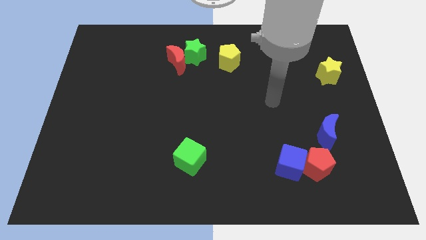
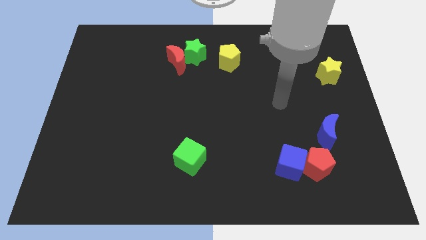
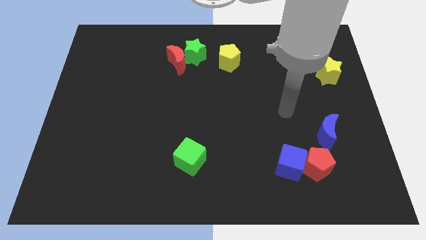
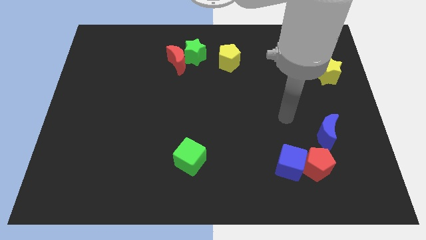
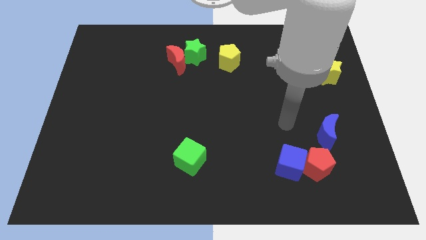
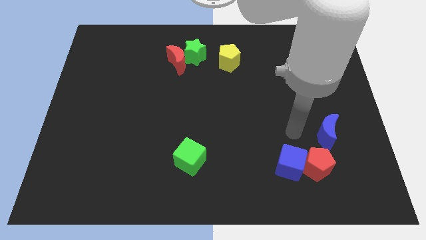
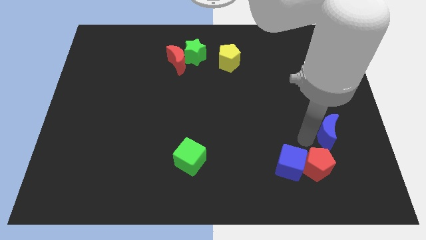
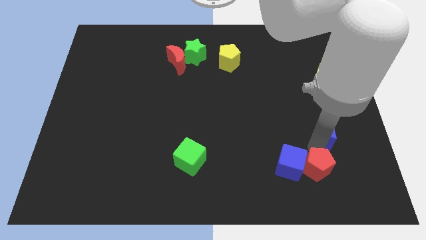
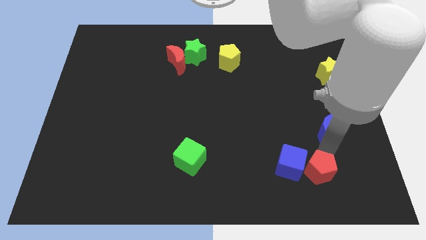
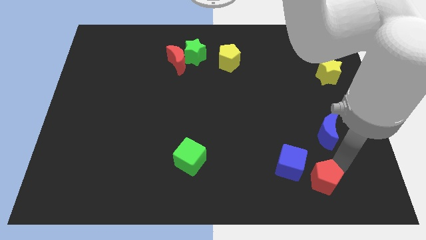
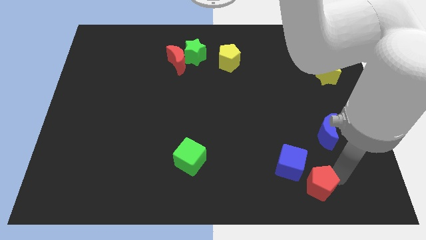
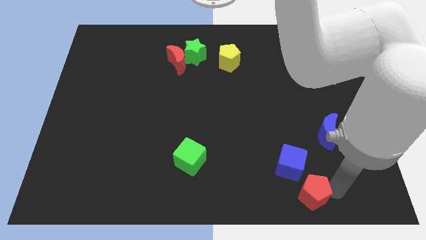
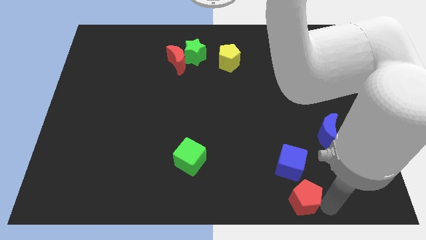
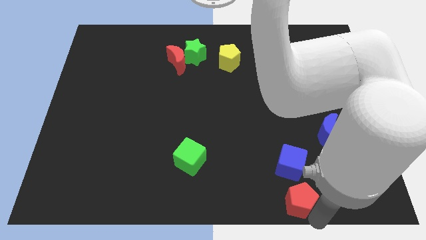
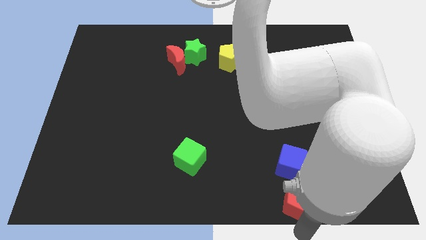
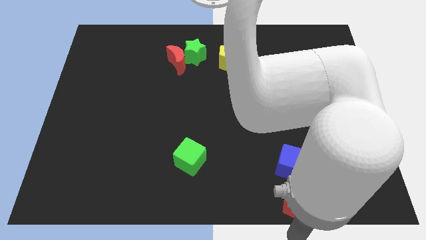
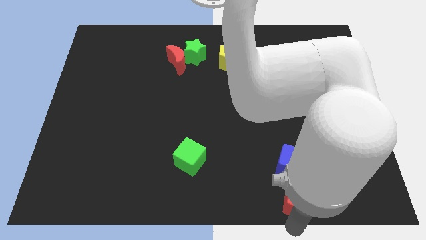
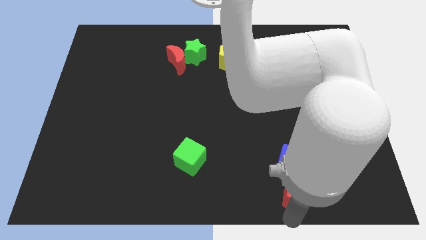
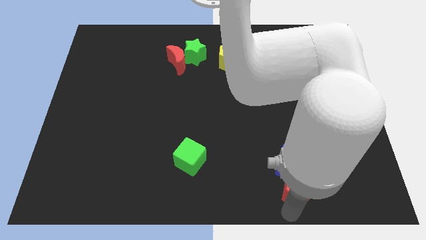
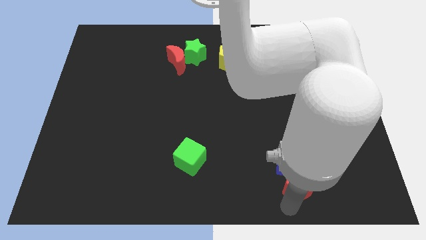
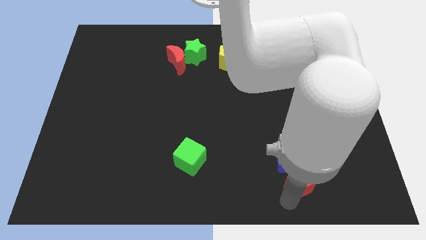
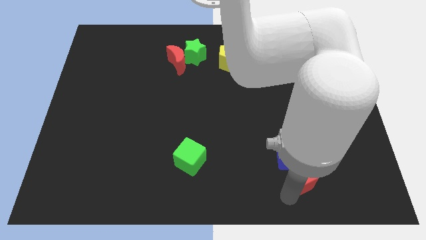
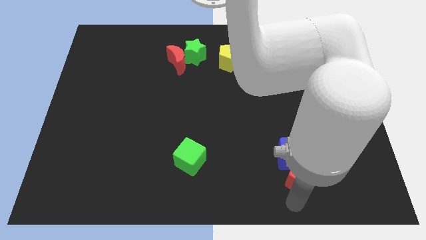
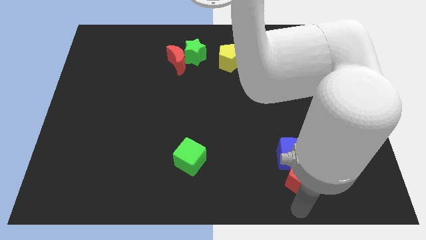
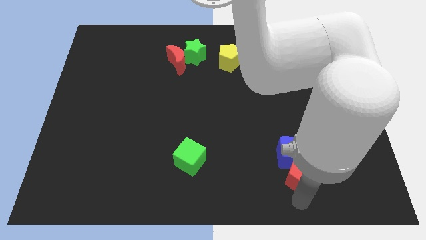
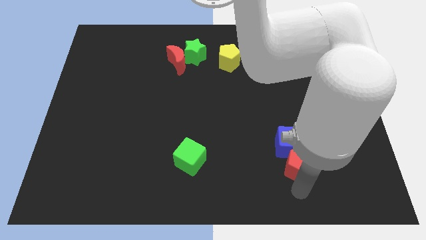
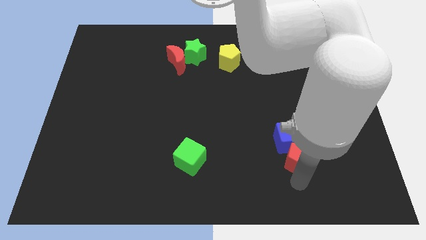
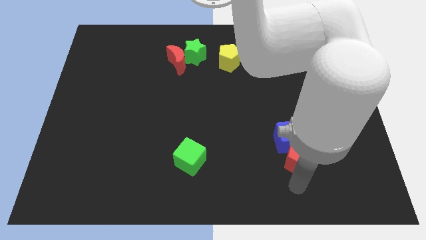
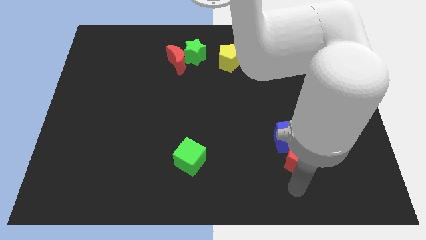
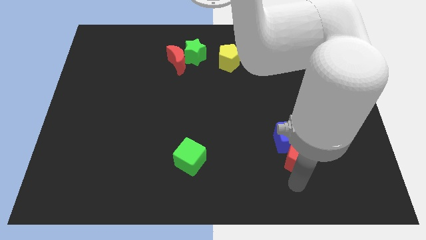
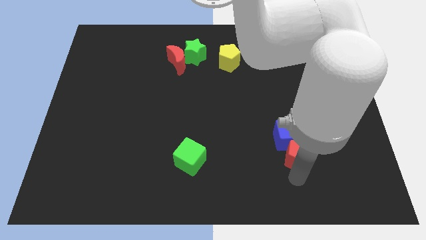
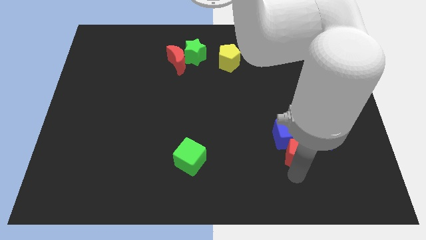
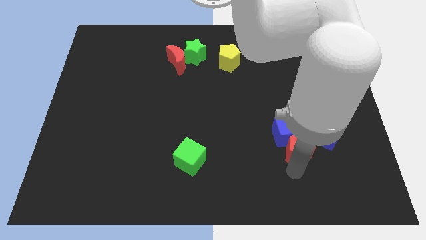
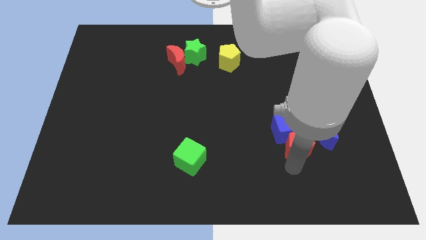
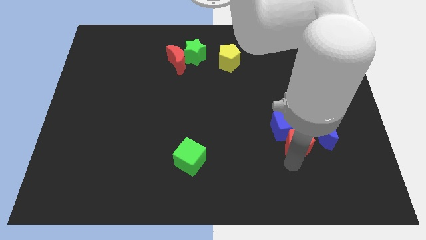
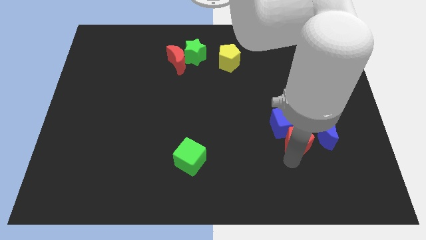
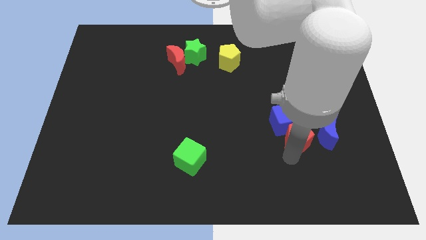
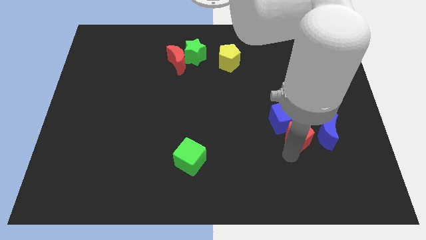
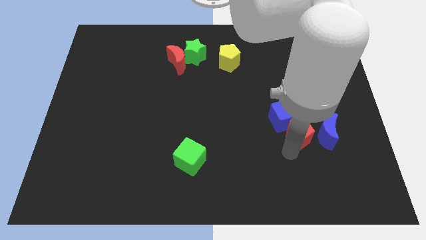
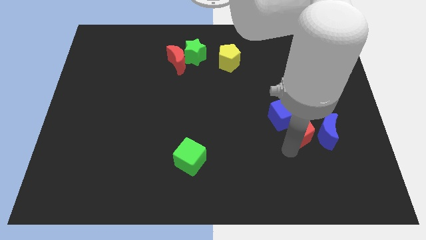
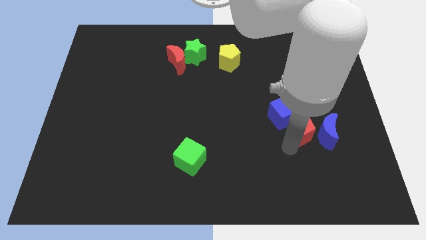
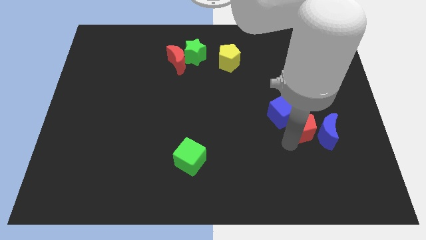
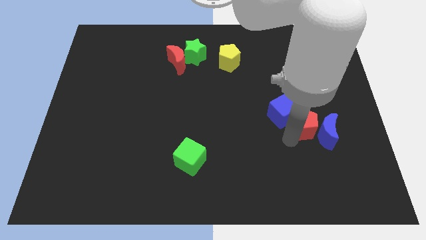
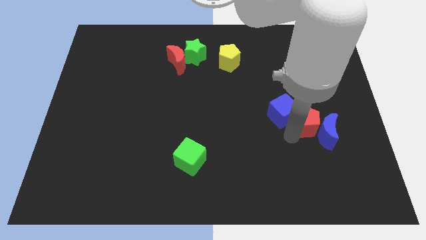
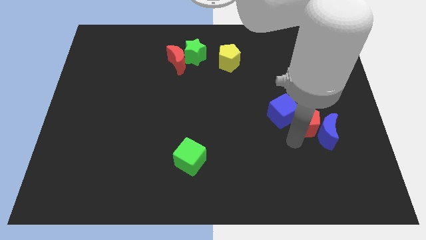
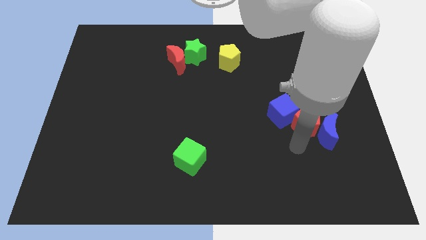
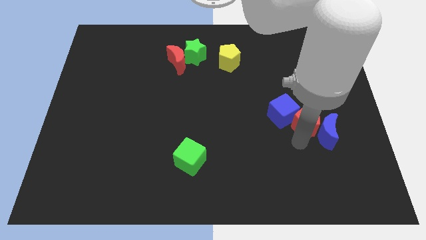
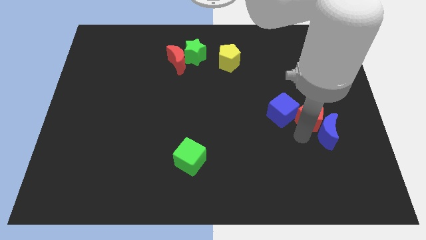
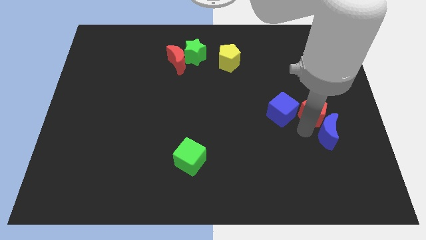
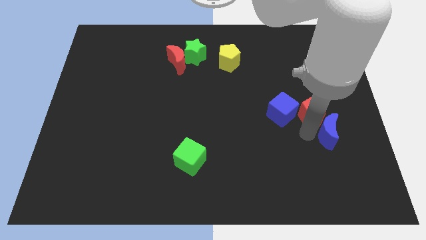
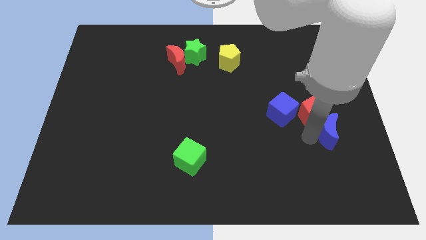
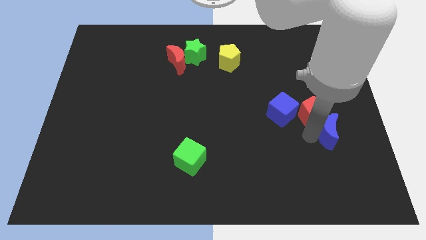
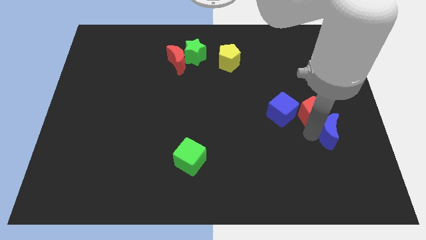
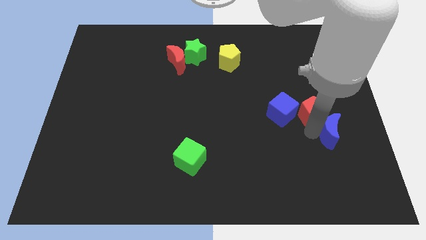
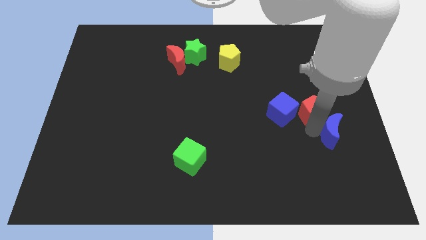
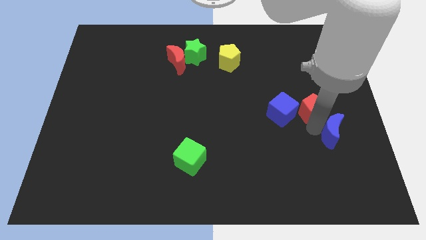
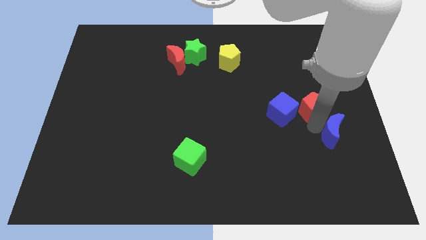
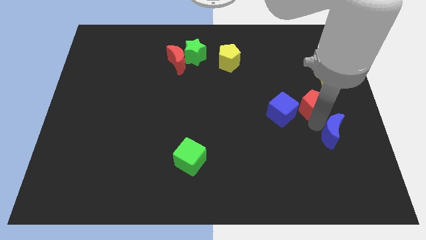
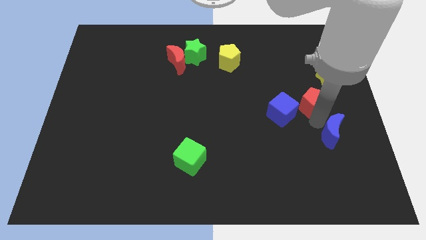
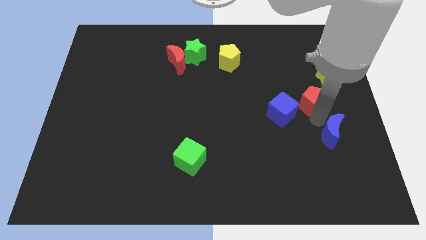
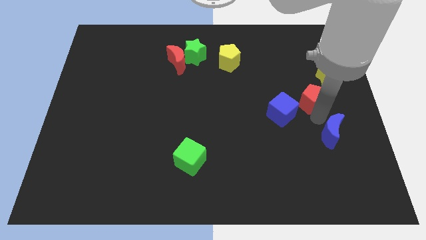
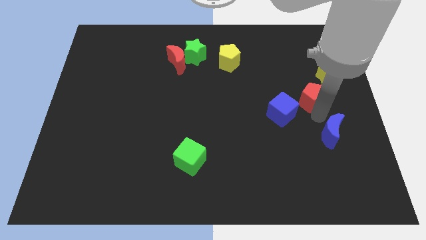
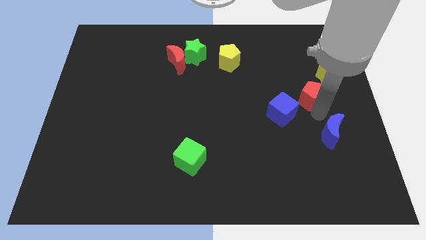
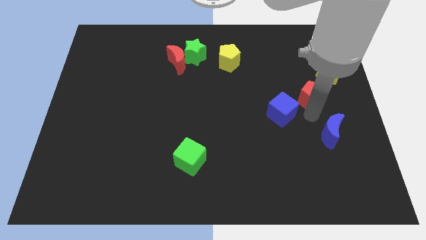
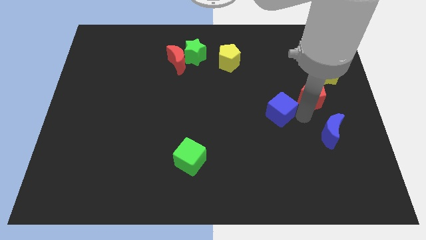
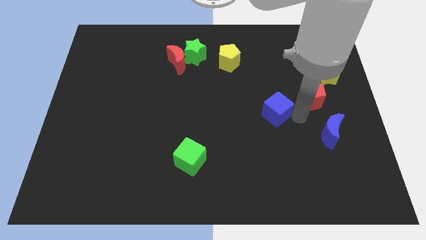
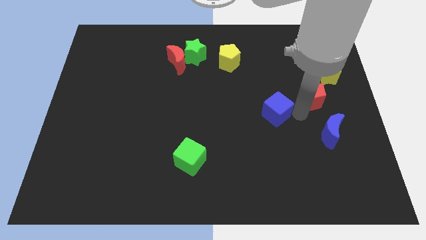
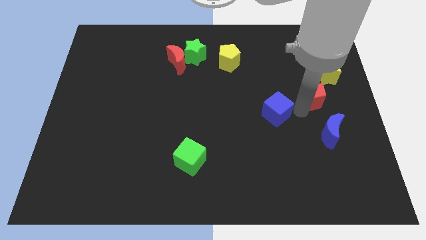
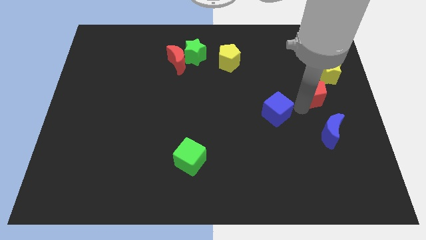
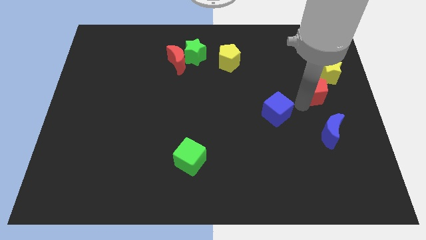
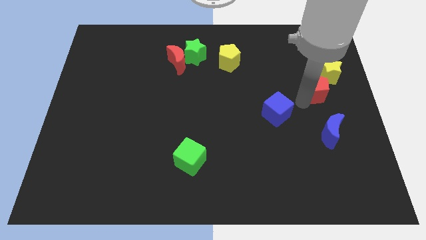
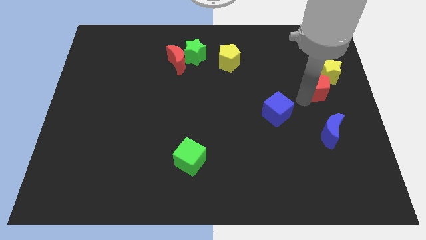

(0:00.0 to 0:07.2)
slide the red pentagon next to the yellow star
